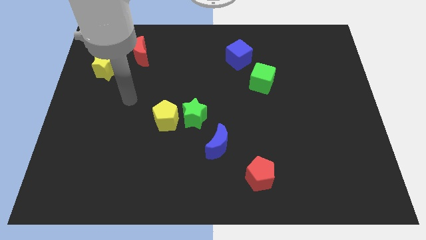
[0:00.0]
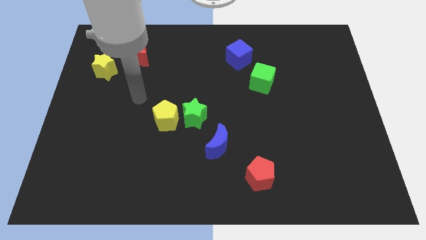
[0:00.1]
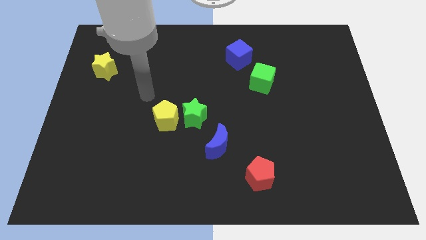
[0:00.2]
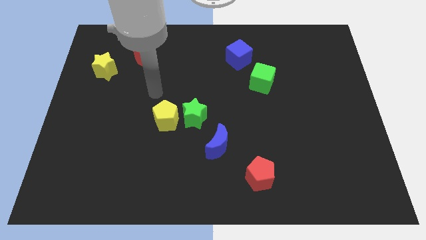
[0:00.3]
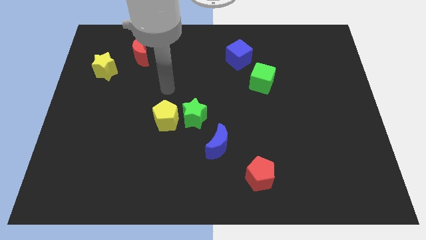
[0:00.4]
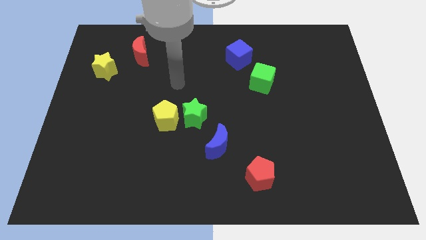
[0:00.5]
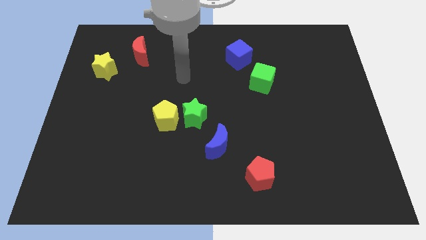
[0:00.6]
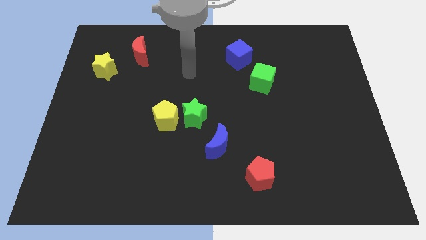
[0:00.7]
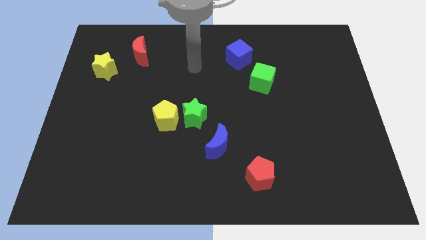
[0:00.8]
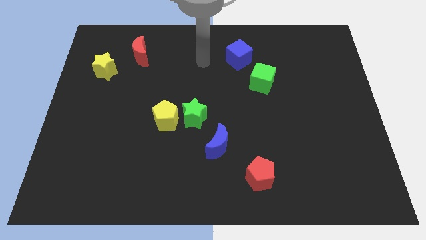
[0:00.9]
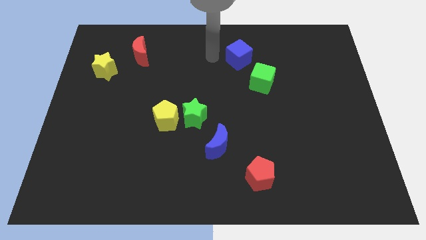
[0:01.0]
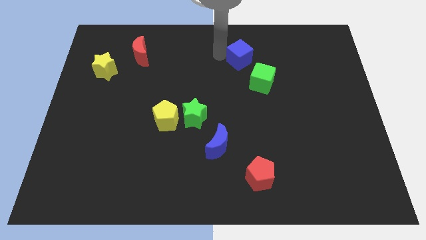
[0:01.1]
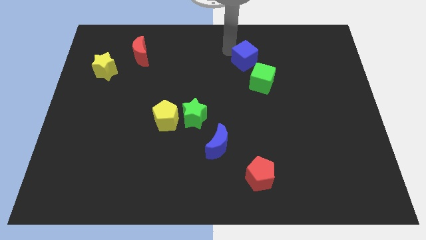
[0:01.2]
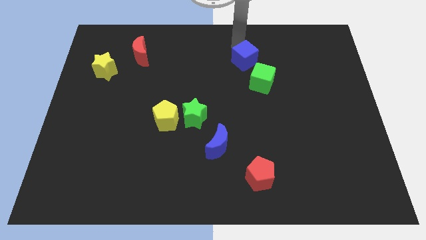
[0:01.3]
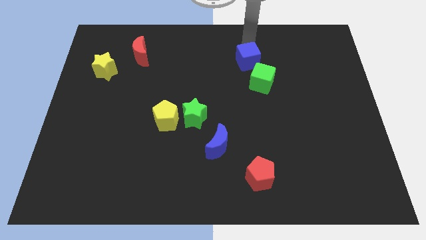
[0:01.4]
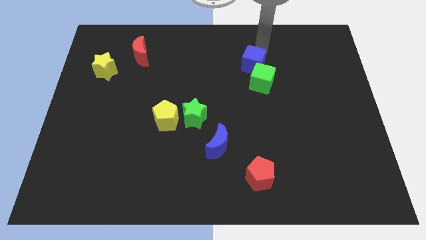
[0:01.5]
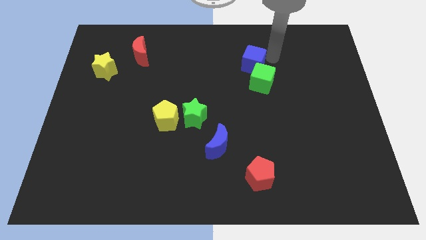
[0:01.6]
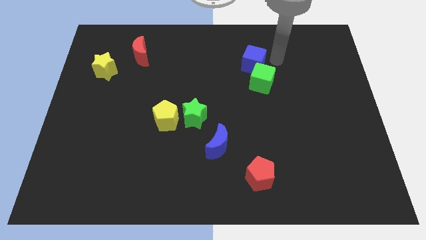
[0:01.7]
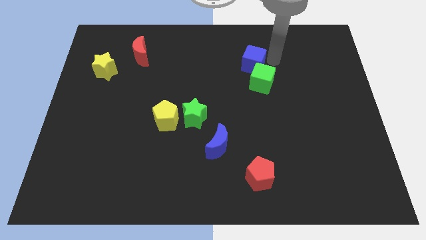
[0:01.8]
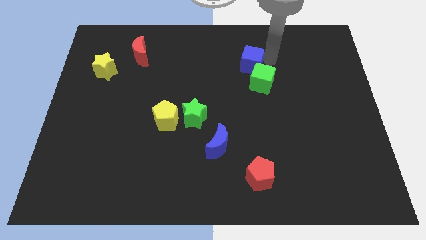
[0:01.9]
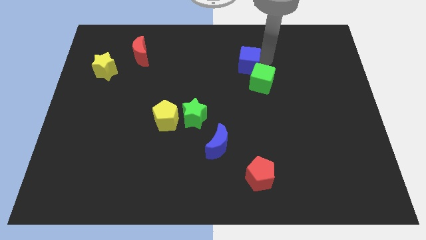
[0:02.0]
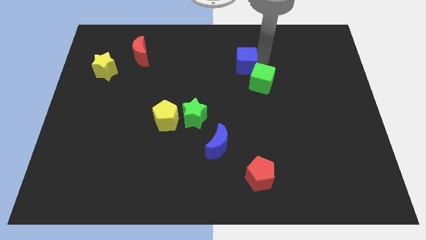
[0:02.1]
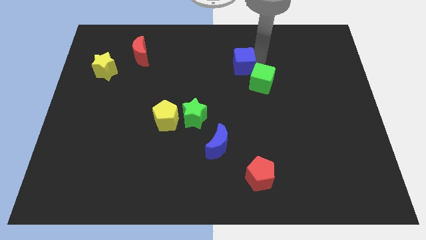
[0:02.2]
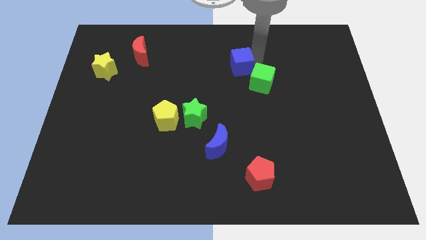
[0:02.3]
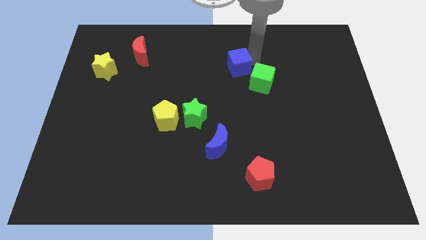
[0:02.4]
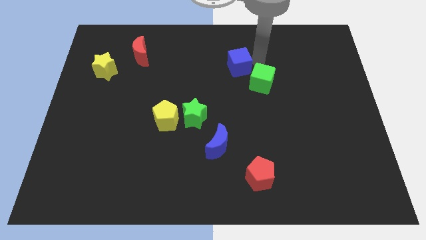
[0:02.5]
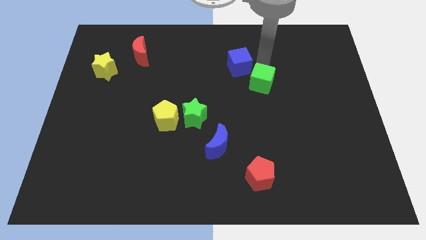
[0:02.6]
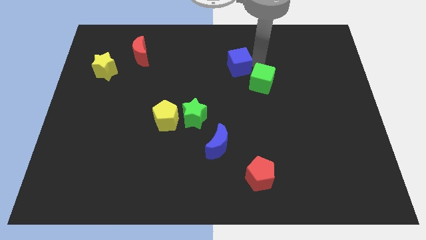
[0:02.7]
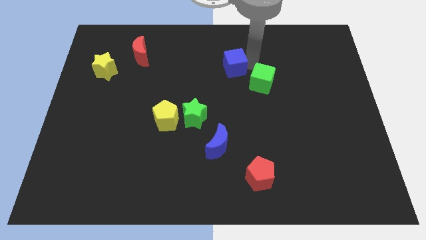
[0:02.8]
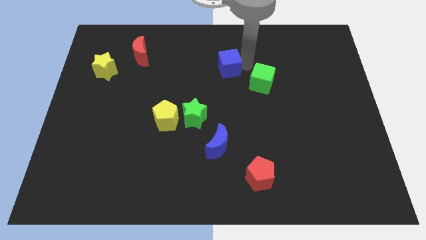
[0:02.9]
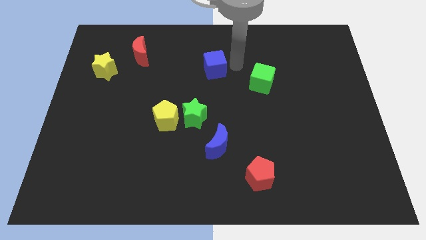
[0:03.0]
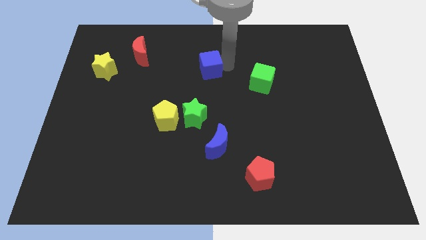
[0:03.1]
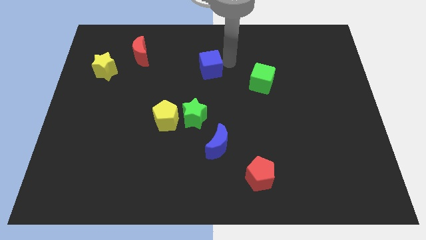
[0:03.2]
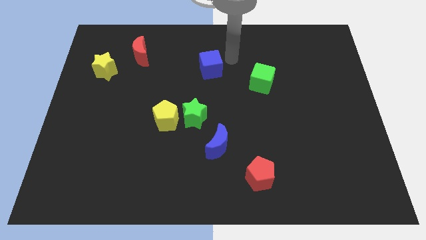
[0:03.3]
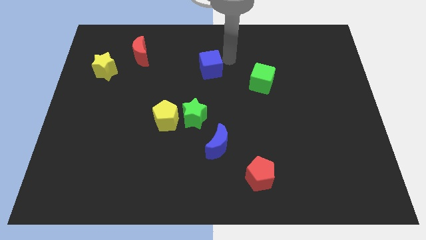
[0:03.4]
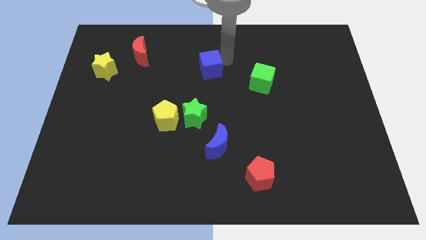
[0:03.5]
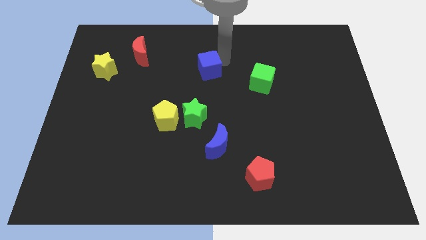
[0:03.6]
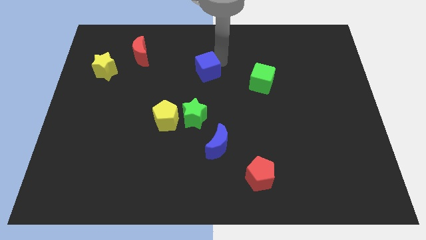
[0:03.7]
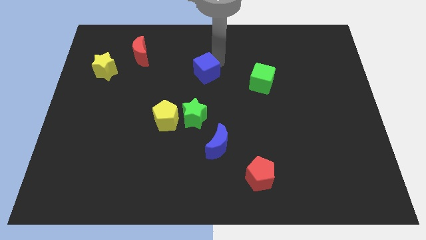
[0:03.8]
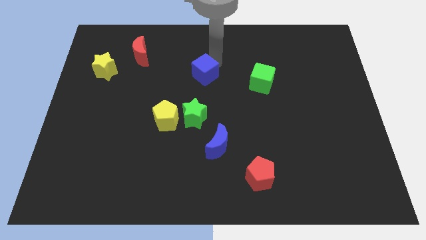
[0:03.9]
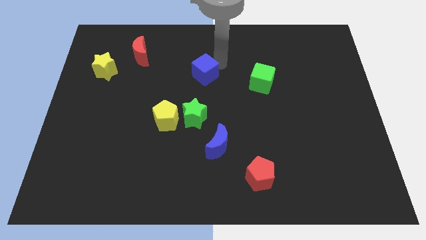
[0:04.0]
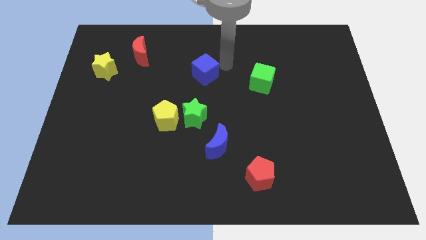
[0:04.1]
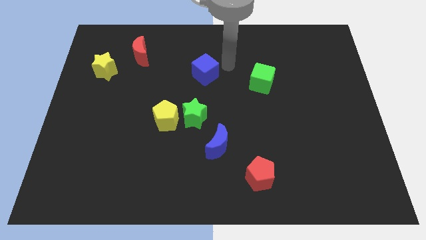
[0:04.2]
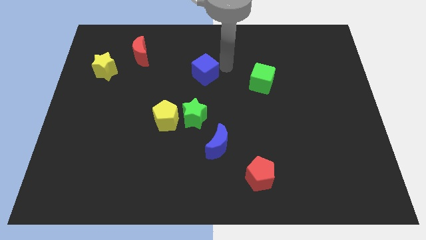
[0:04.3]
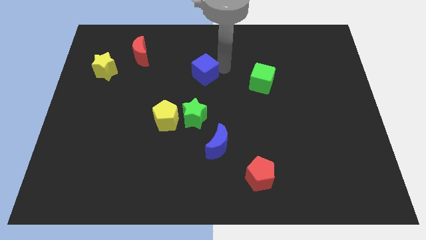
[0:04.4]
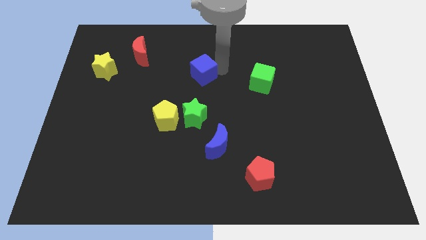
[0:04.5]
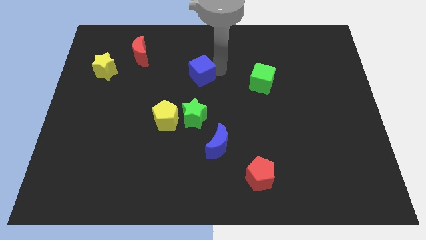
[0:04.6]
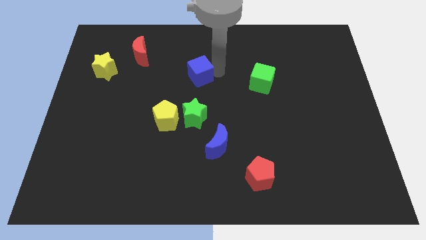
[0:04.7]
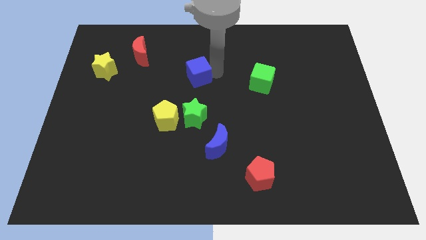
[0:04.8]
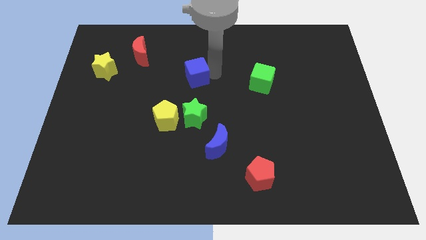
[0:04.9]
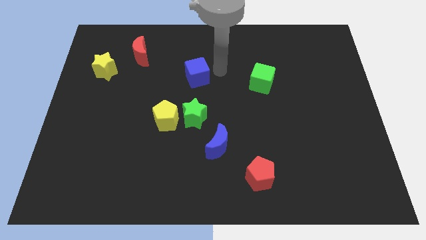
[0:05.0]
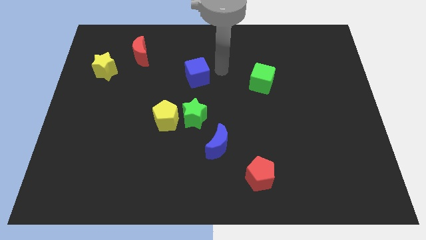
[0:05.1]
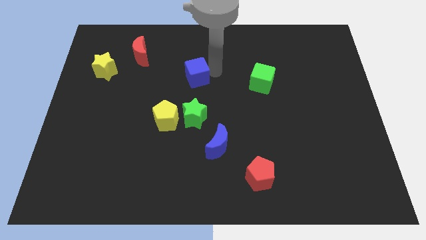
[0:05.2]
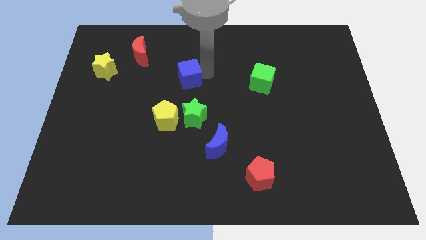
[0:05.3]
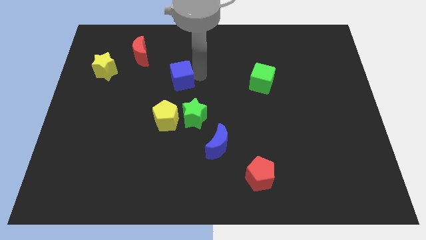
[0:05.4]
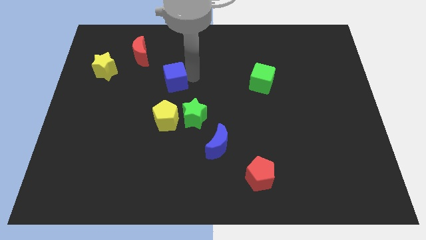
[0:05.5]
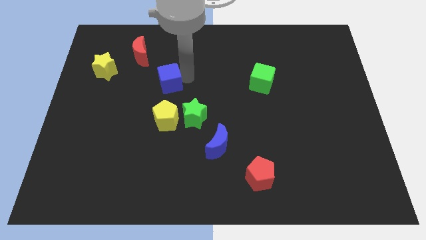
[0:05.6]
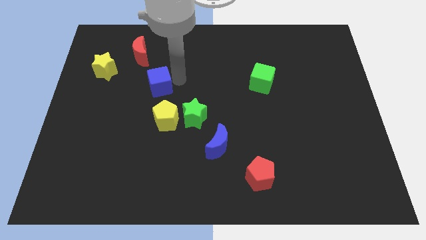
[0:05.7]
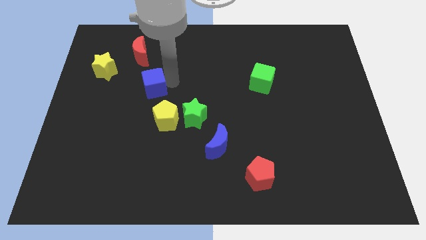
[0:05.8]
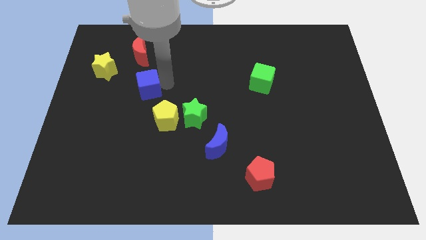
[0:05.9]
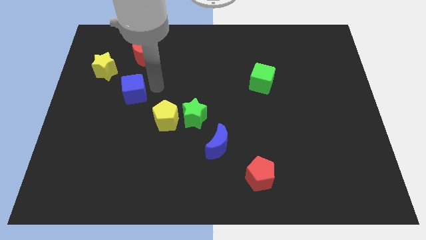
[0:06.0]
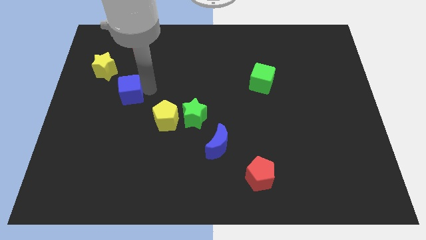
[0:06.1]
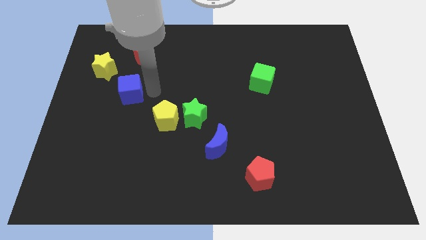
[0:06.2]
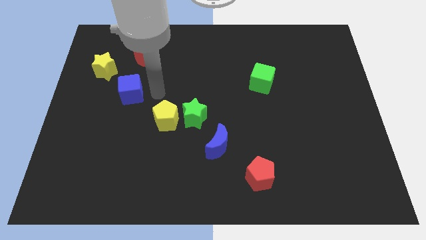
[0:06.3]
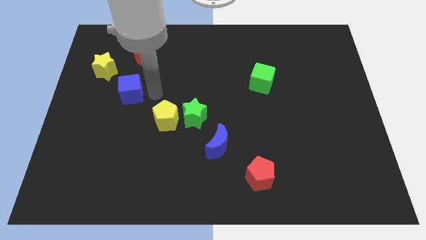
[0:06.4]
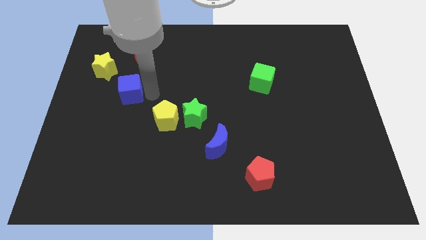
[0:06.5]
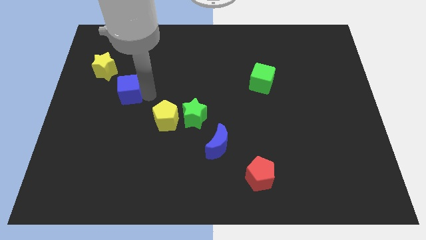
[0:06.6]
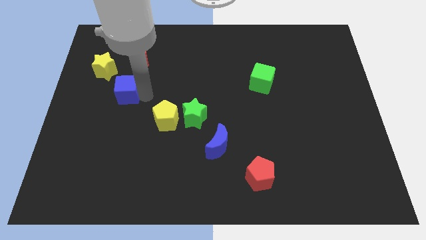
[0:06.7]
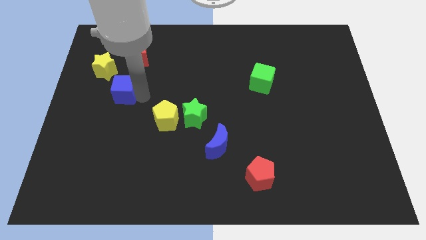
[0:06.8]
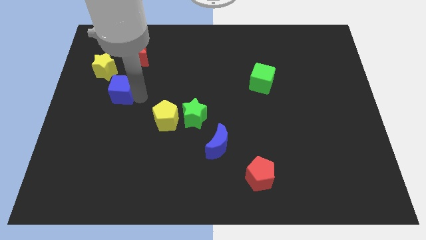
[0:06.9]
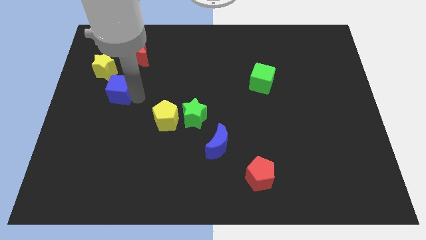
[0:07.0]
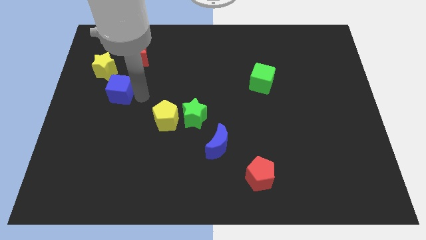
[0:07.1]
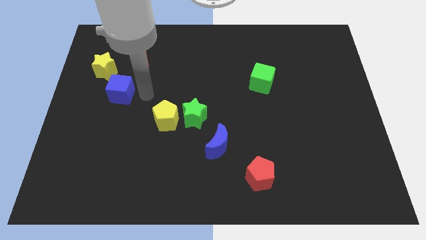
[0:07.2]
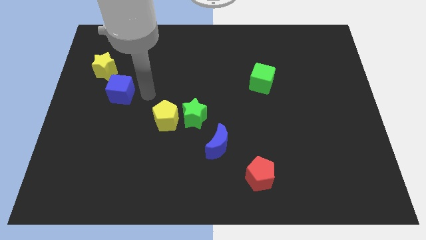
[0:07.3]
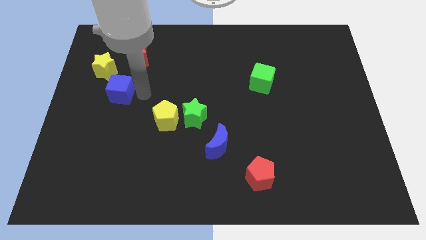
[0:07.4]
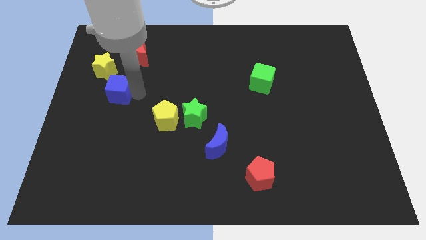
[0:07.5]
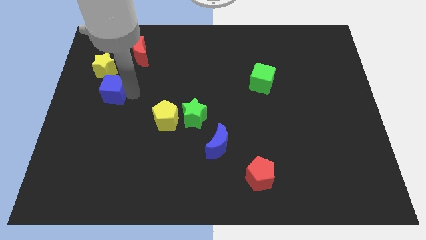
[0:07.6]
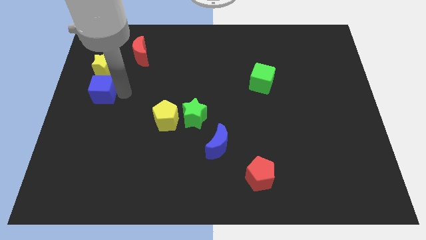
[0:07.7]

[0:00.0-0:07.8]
move the blue cube to the center left
